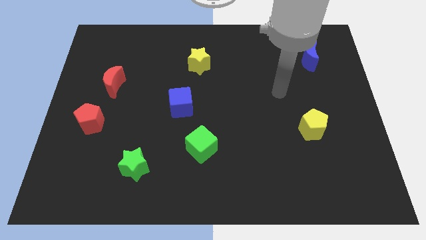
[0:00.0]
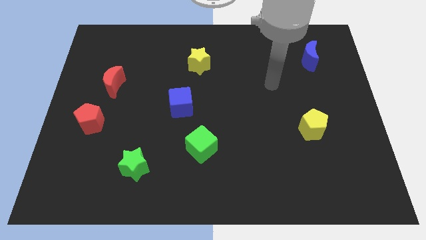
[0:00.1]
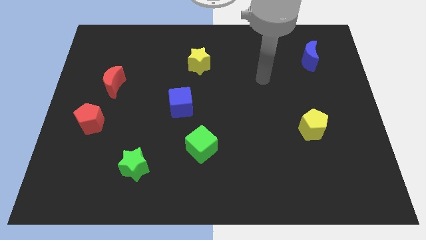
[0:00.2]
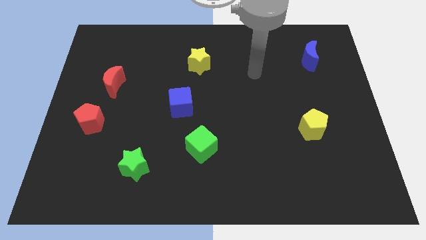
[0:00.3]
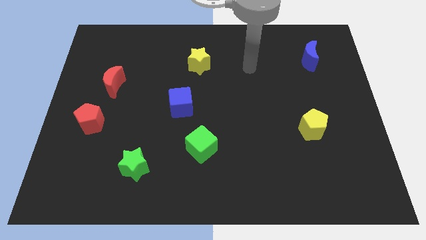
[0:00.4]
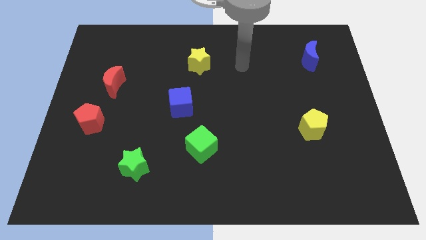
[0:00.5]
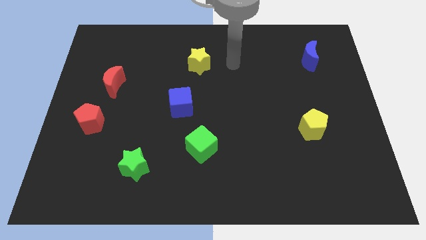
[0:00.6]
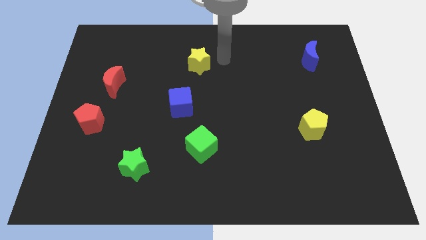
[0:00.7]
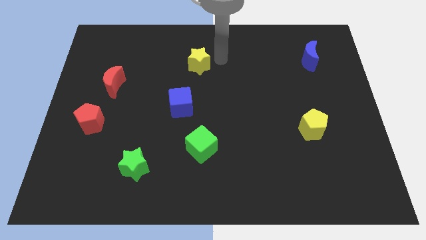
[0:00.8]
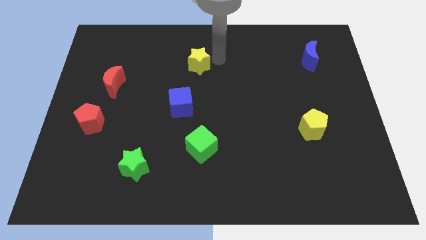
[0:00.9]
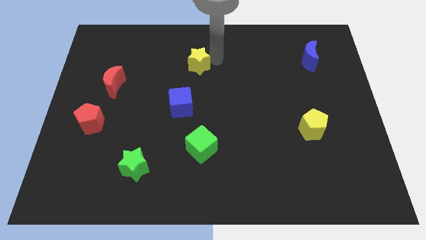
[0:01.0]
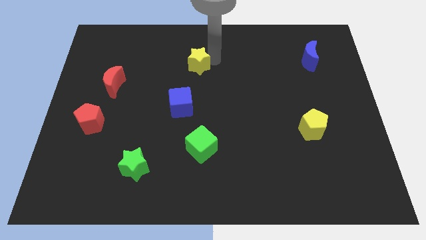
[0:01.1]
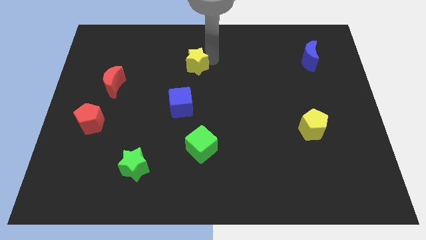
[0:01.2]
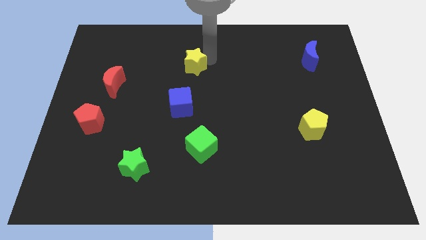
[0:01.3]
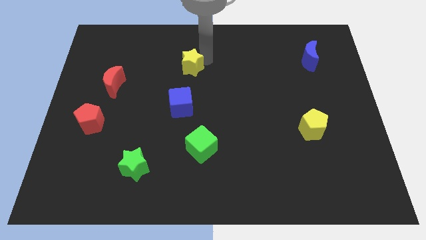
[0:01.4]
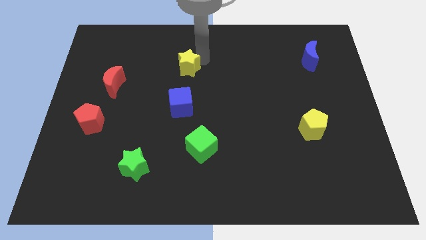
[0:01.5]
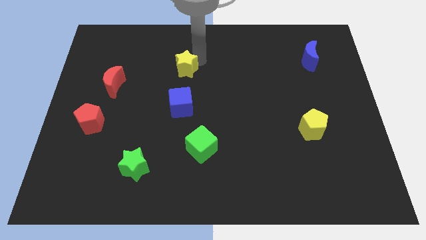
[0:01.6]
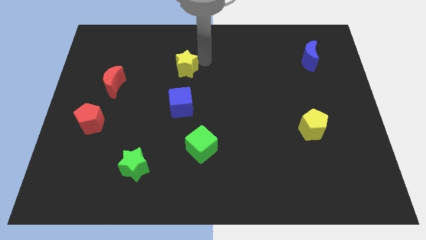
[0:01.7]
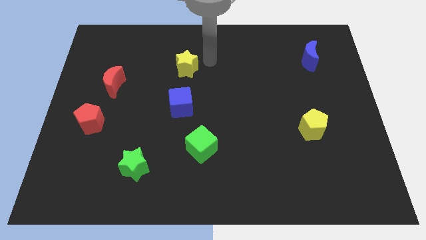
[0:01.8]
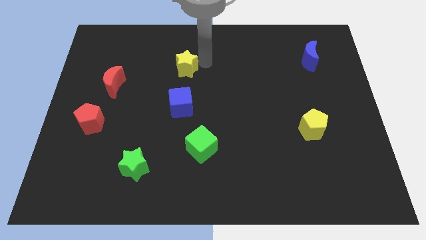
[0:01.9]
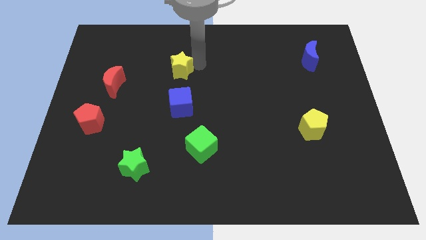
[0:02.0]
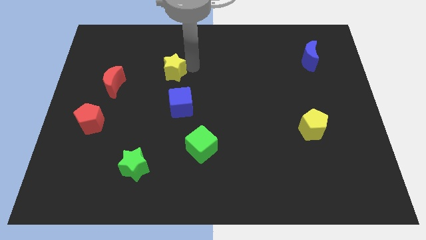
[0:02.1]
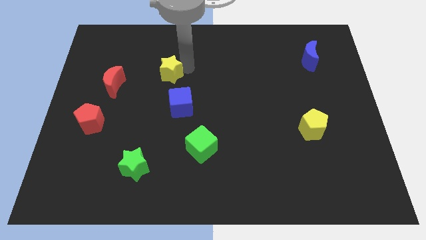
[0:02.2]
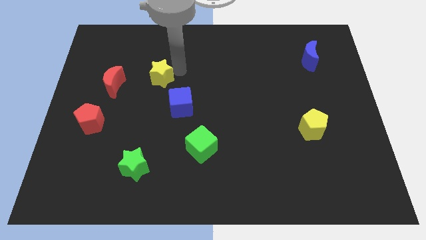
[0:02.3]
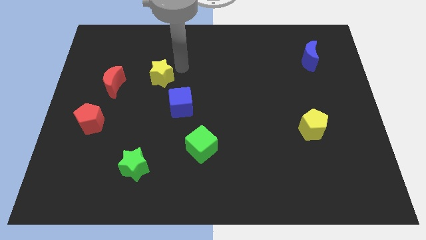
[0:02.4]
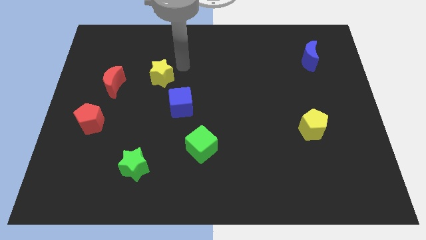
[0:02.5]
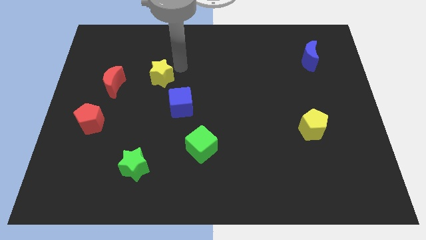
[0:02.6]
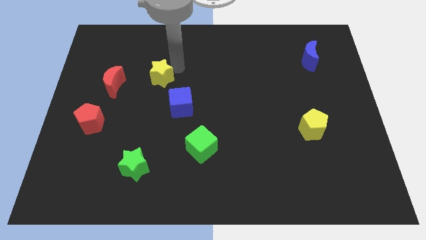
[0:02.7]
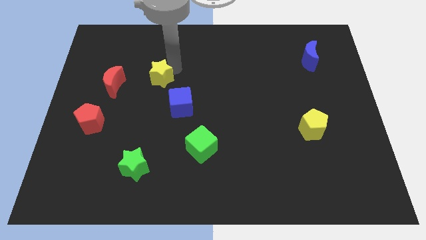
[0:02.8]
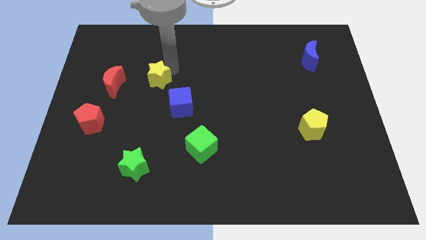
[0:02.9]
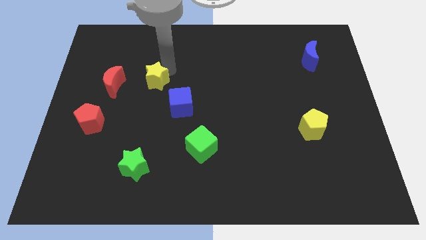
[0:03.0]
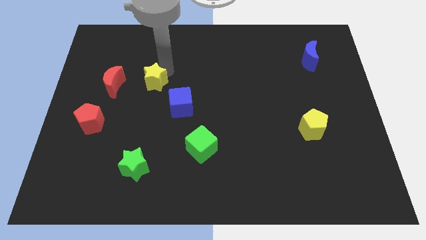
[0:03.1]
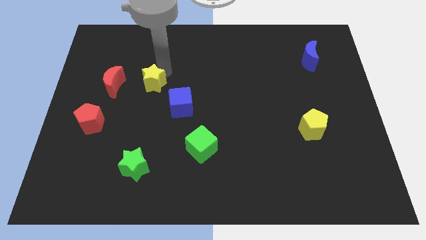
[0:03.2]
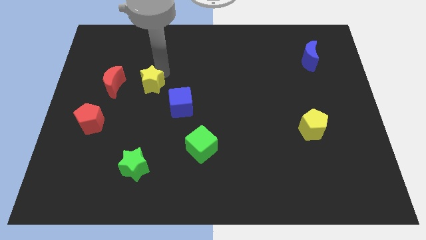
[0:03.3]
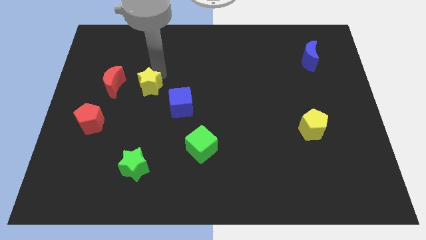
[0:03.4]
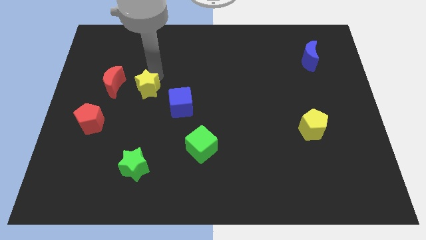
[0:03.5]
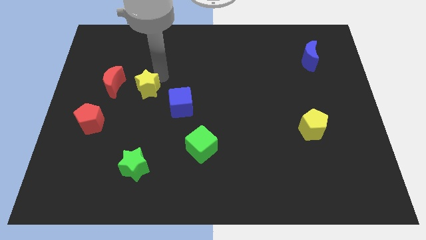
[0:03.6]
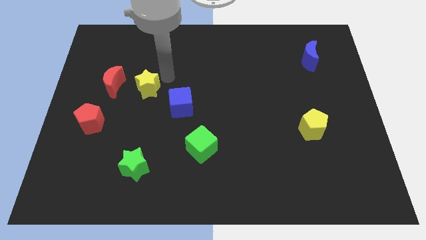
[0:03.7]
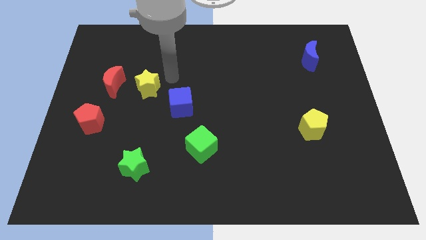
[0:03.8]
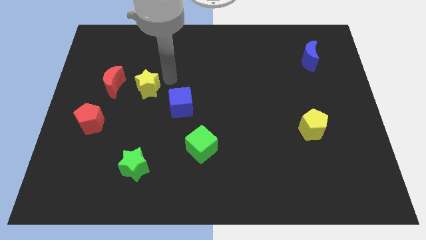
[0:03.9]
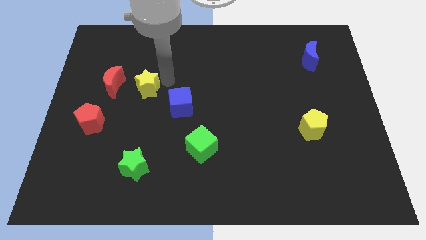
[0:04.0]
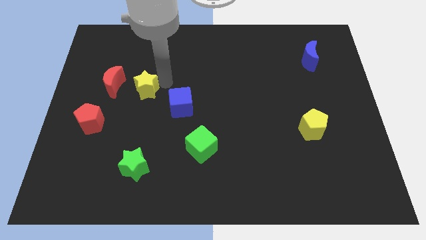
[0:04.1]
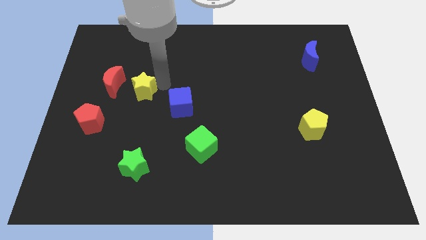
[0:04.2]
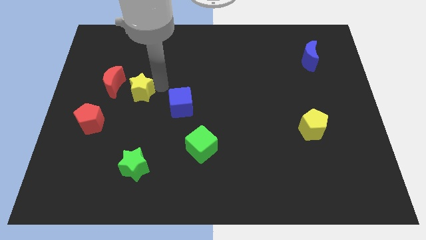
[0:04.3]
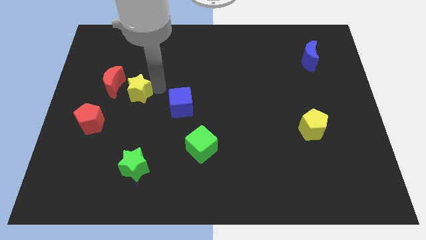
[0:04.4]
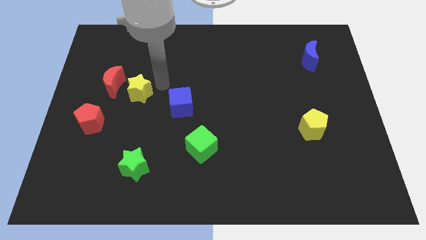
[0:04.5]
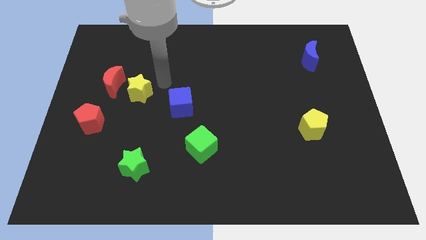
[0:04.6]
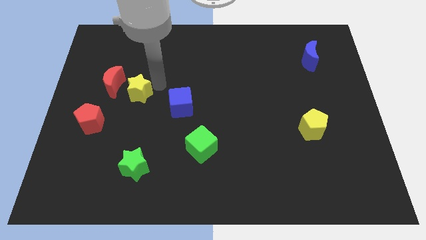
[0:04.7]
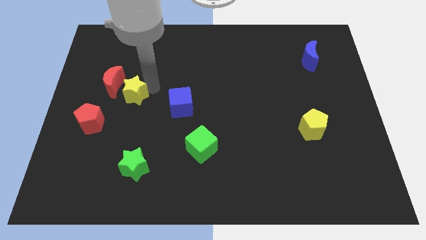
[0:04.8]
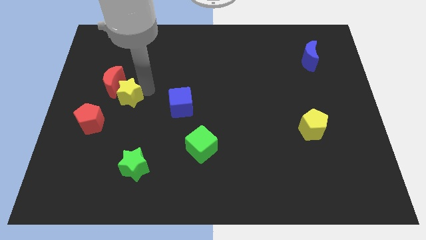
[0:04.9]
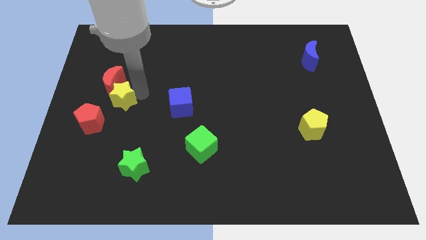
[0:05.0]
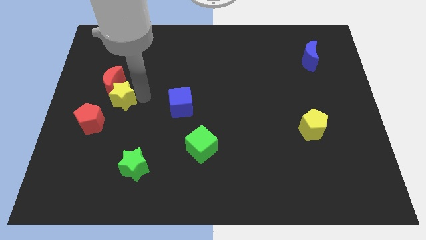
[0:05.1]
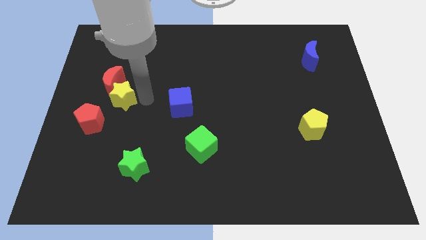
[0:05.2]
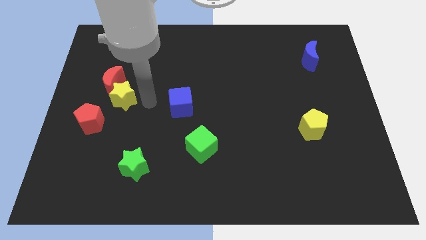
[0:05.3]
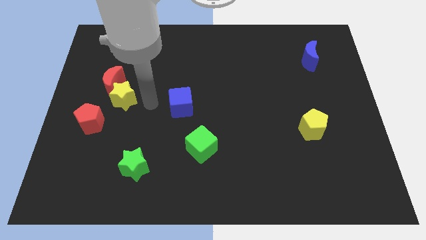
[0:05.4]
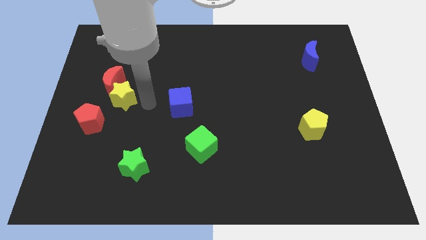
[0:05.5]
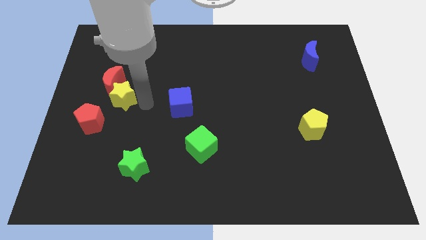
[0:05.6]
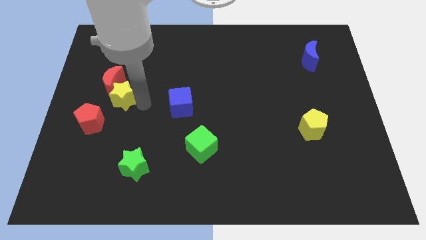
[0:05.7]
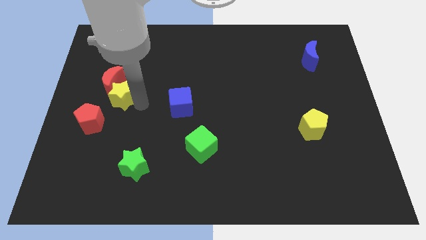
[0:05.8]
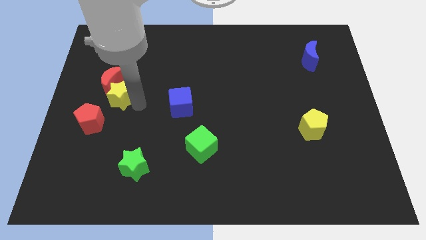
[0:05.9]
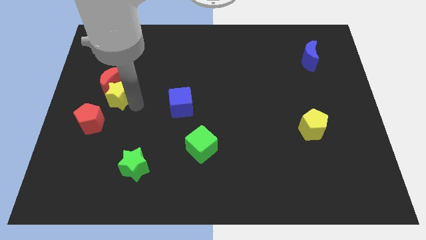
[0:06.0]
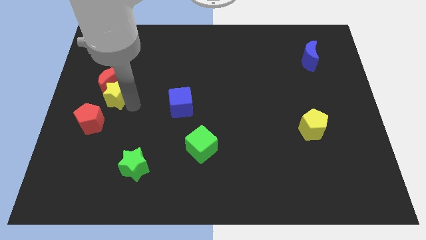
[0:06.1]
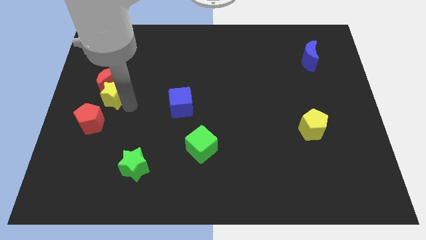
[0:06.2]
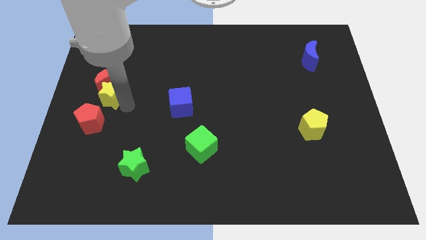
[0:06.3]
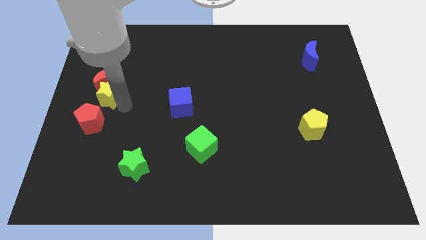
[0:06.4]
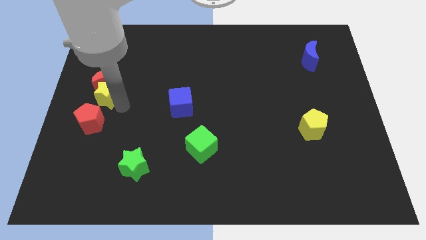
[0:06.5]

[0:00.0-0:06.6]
put the yellow star to the left side
